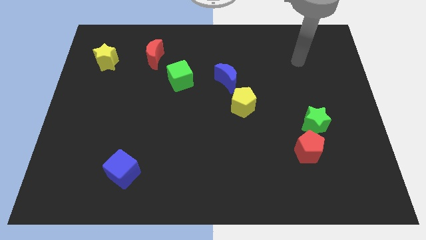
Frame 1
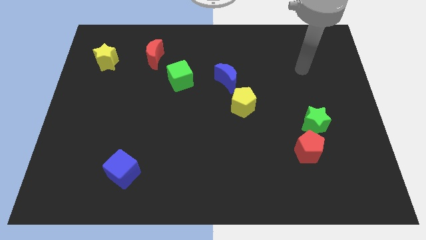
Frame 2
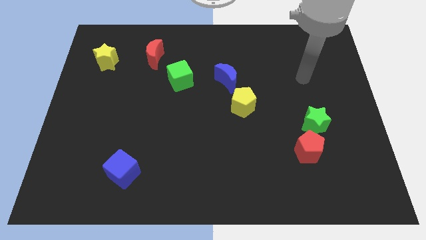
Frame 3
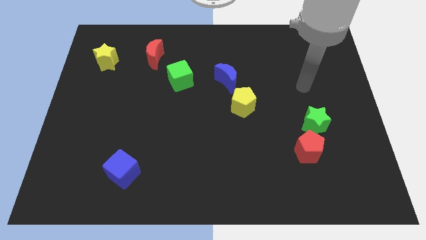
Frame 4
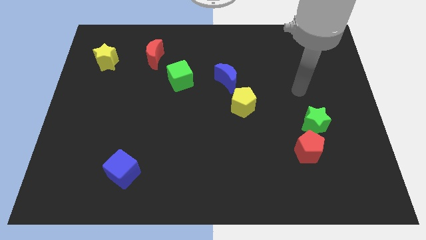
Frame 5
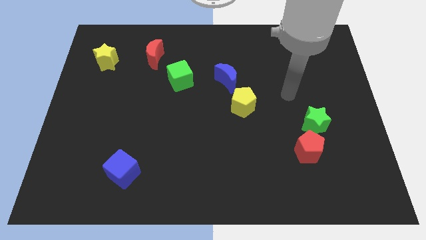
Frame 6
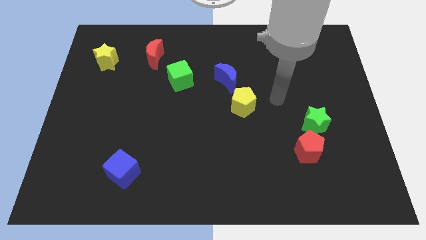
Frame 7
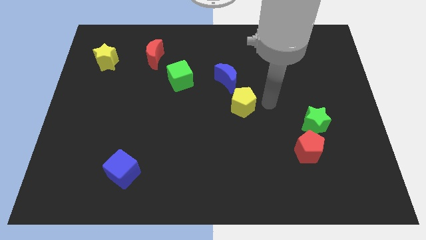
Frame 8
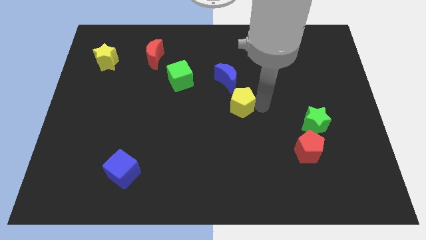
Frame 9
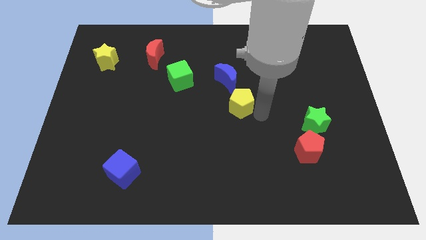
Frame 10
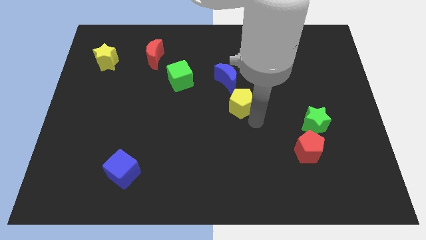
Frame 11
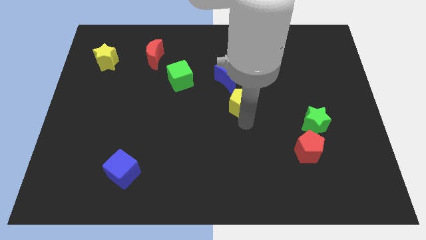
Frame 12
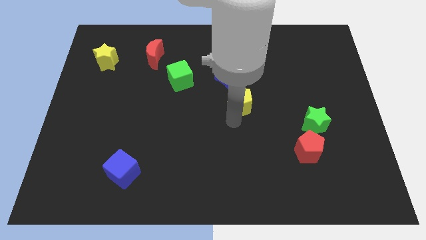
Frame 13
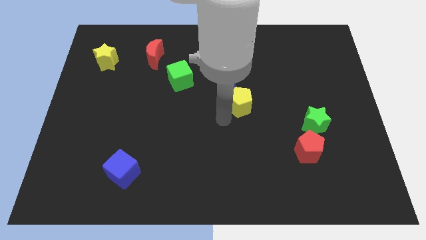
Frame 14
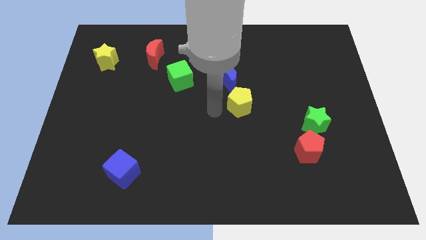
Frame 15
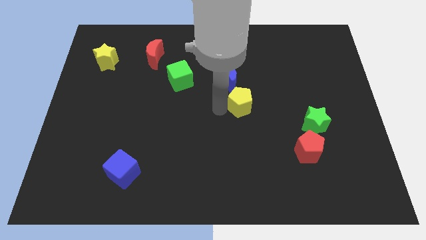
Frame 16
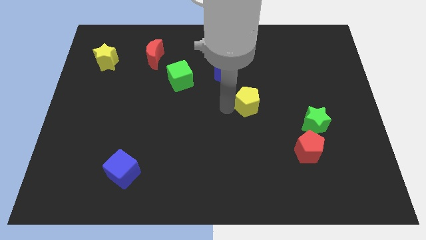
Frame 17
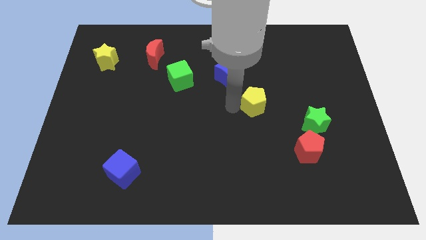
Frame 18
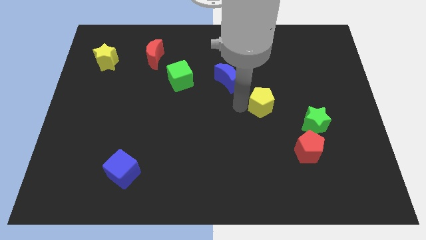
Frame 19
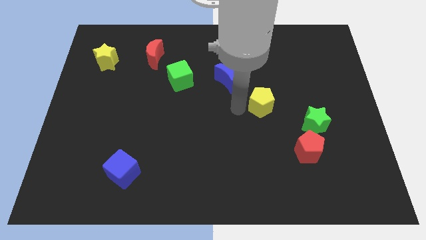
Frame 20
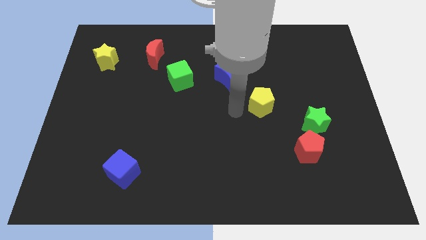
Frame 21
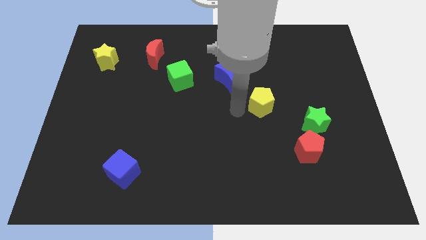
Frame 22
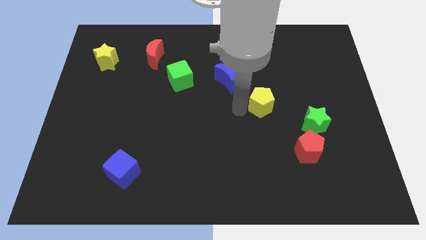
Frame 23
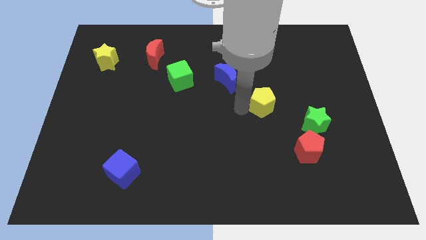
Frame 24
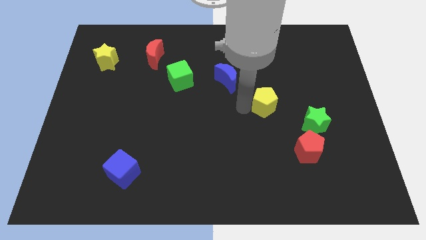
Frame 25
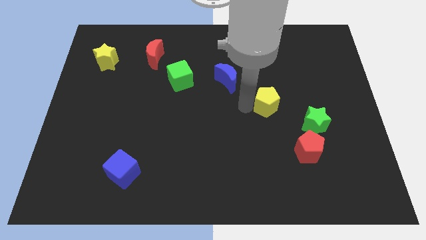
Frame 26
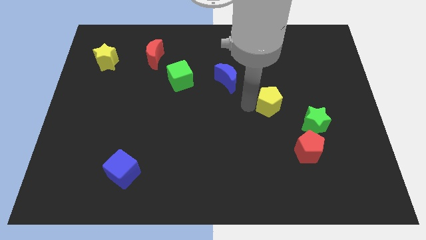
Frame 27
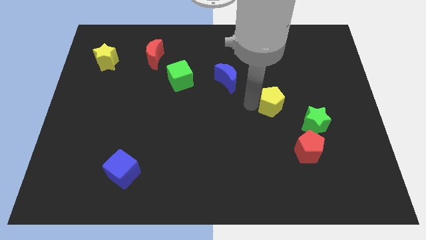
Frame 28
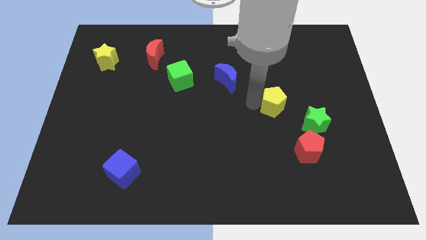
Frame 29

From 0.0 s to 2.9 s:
push the yellow pentagon somewhat right

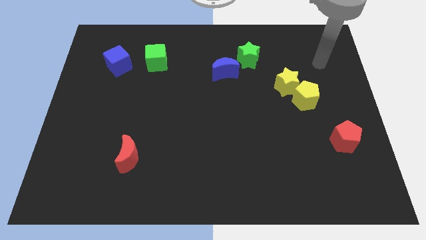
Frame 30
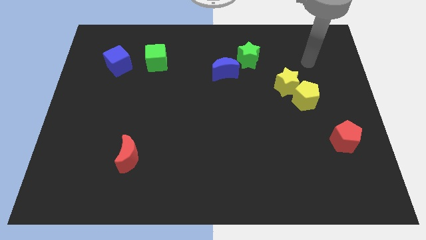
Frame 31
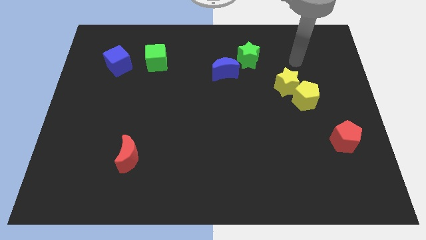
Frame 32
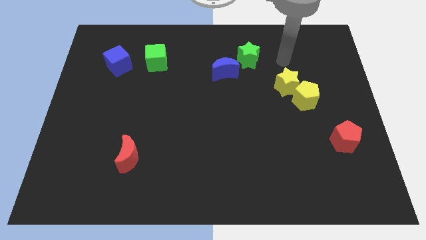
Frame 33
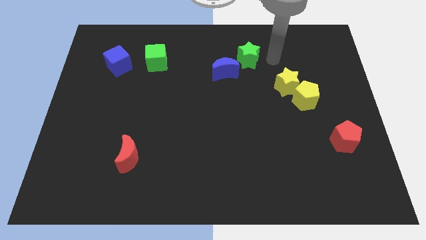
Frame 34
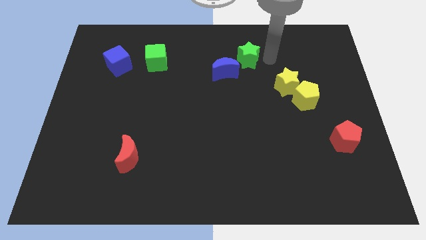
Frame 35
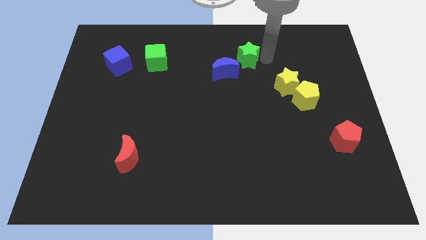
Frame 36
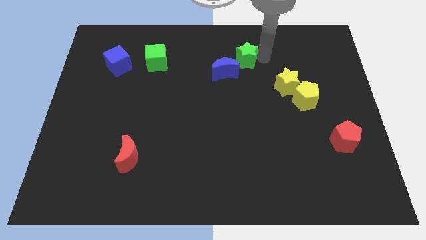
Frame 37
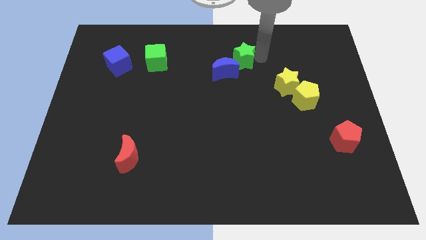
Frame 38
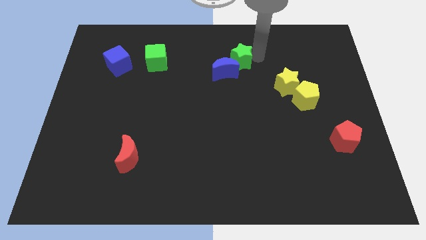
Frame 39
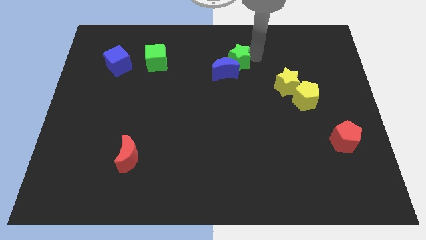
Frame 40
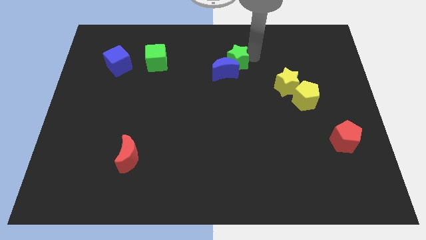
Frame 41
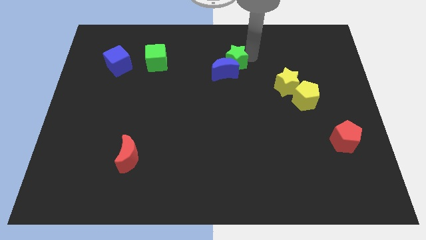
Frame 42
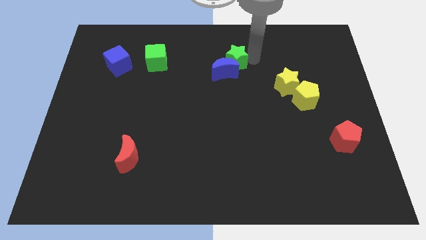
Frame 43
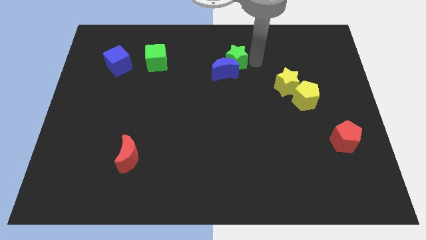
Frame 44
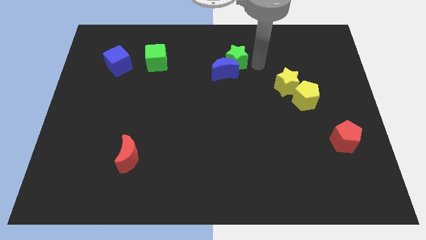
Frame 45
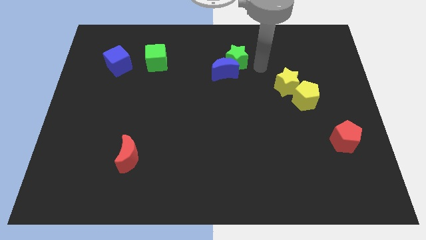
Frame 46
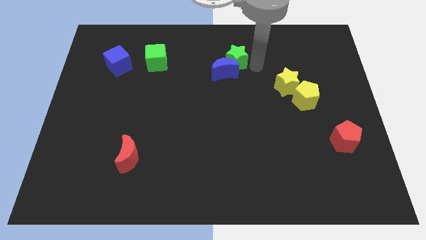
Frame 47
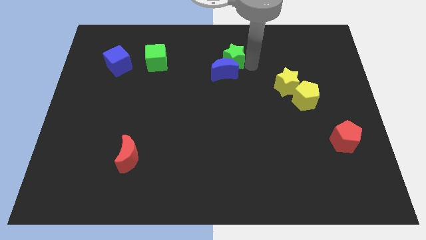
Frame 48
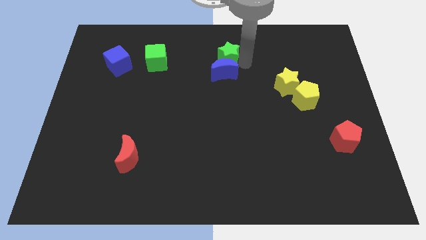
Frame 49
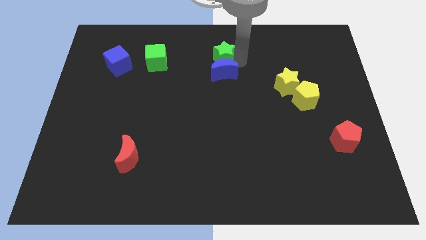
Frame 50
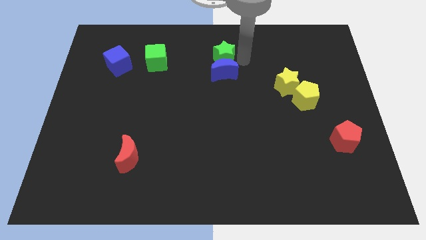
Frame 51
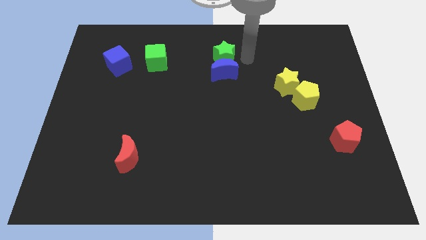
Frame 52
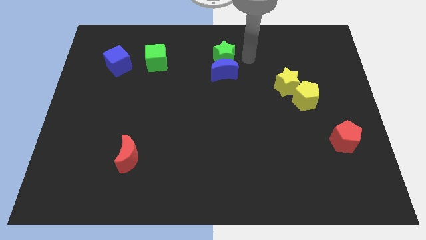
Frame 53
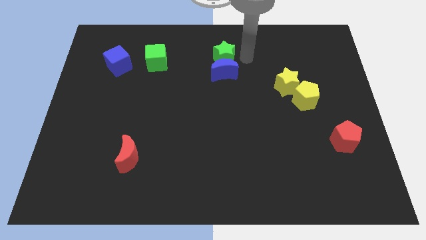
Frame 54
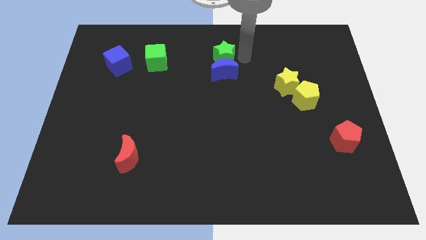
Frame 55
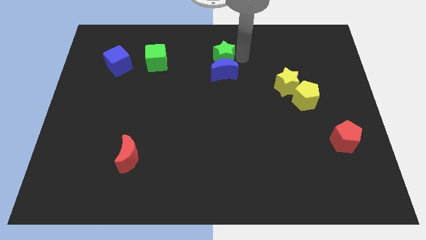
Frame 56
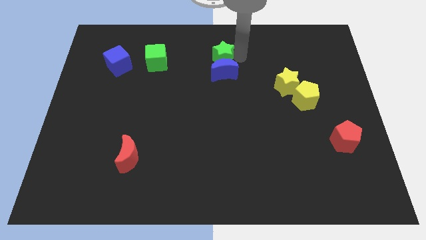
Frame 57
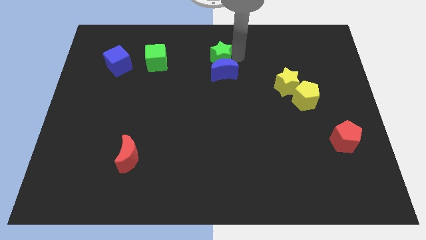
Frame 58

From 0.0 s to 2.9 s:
slightly move the green star to the left

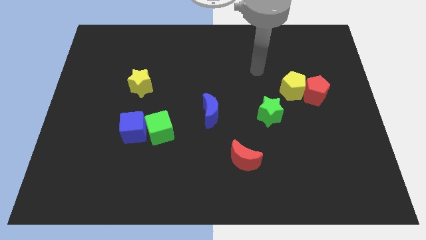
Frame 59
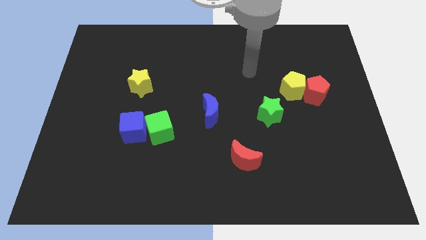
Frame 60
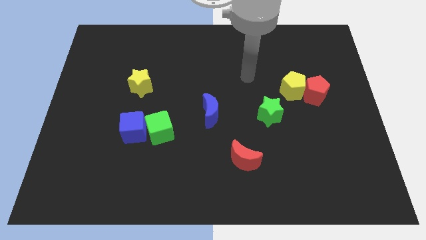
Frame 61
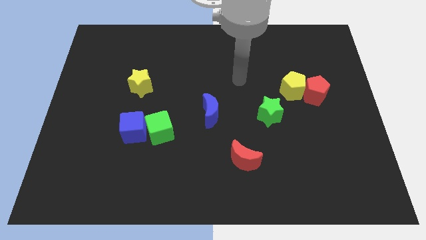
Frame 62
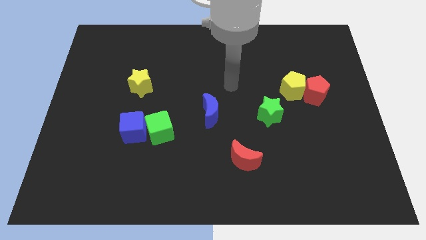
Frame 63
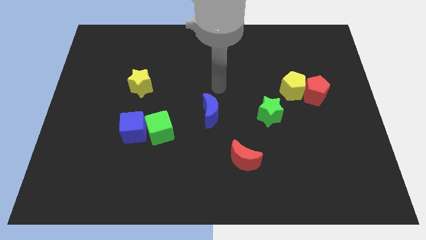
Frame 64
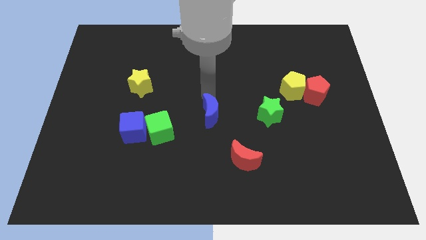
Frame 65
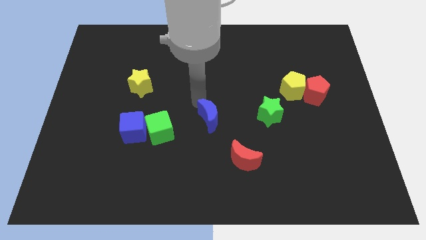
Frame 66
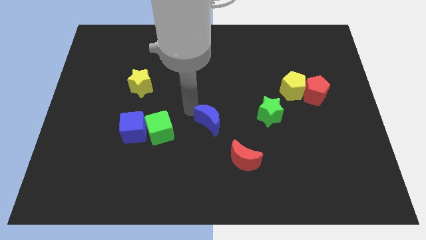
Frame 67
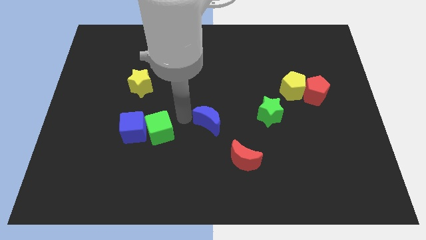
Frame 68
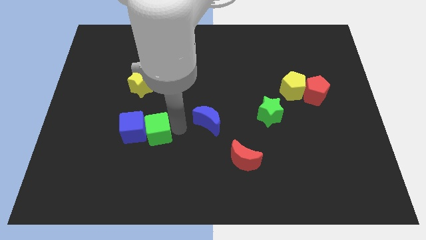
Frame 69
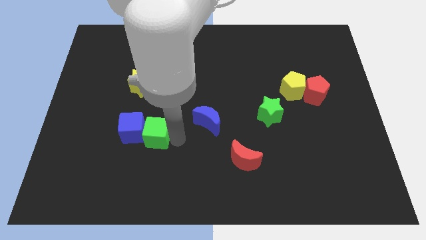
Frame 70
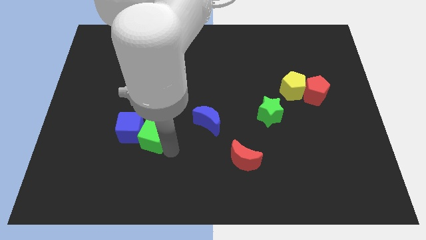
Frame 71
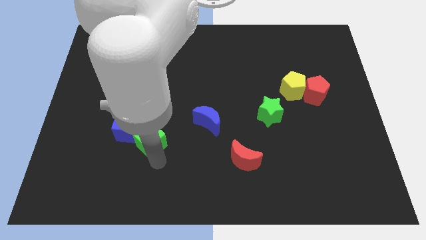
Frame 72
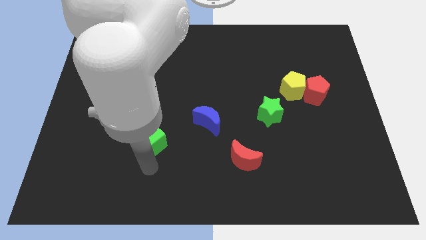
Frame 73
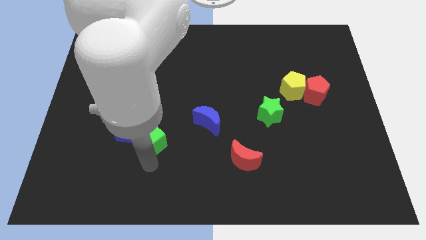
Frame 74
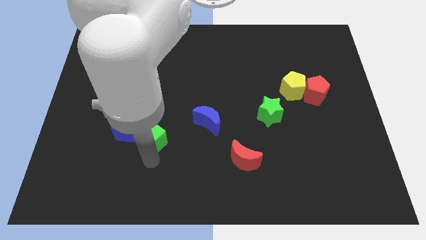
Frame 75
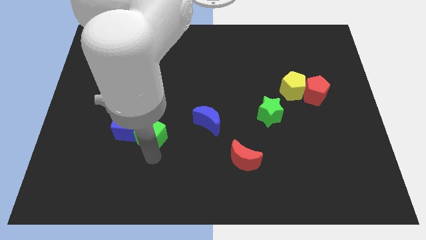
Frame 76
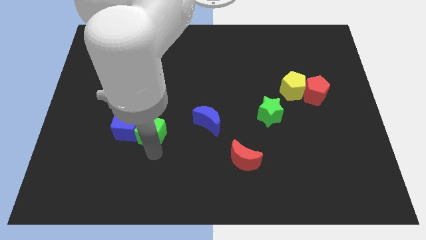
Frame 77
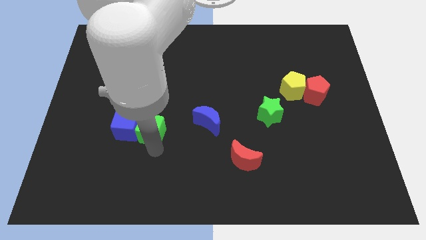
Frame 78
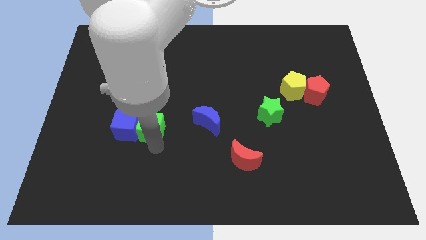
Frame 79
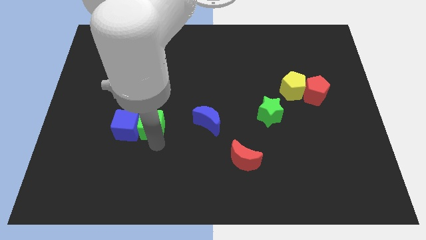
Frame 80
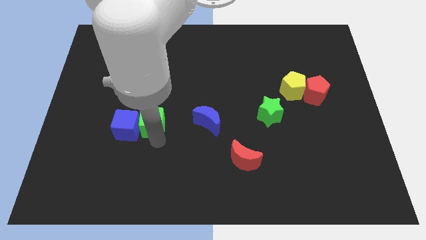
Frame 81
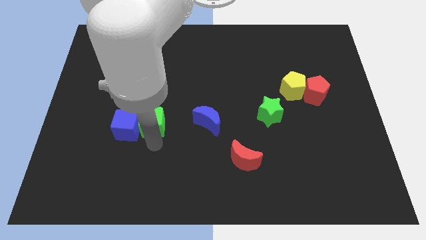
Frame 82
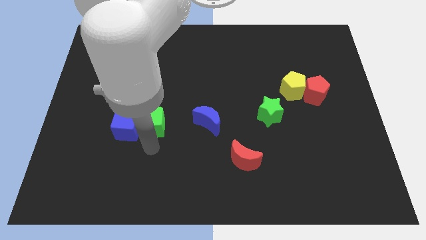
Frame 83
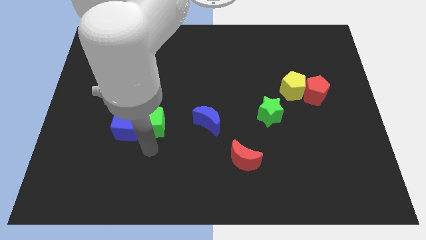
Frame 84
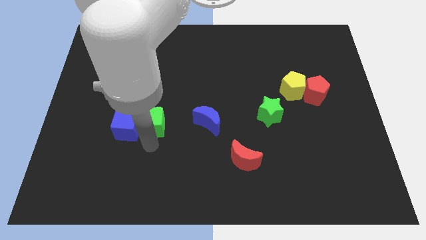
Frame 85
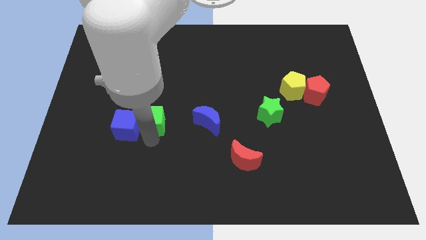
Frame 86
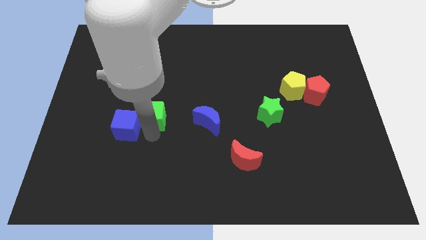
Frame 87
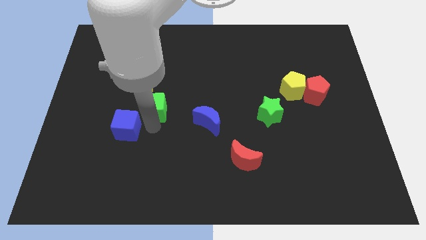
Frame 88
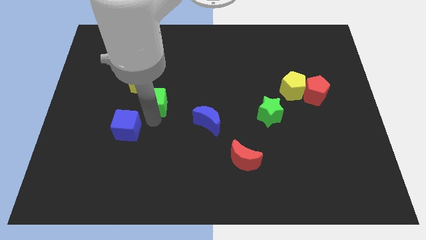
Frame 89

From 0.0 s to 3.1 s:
slightly move the green cube up
